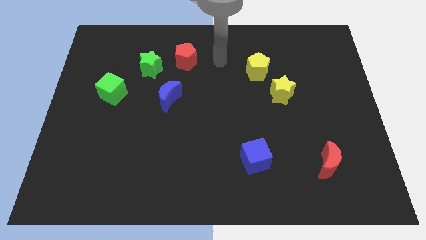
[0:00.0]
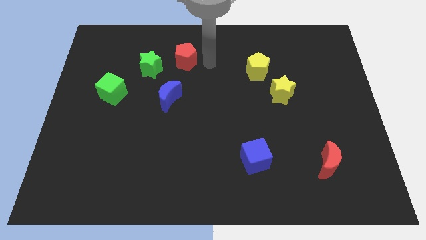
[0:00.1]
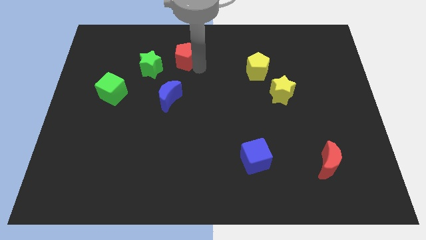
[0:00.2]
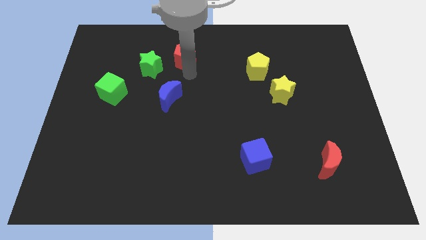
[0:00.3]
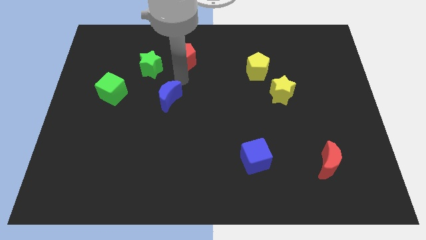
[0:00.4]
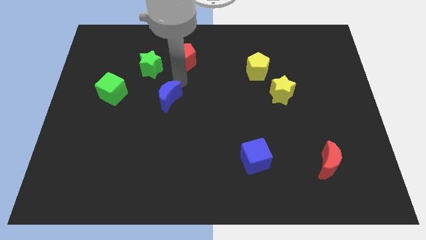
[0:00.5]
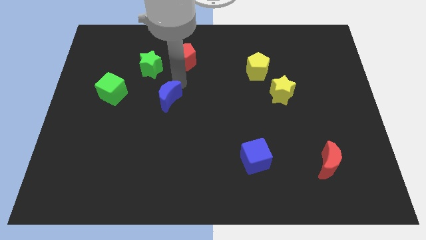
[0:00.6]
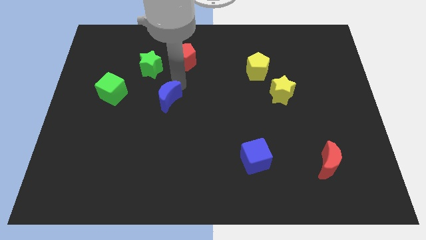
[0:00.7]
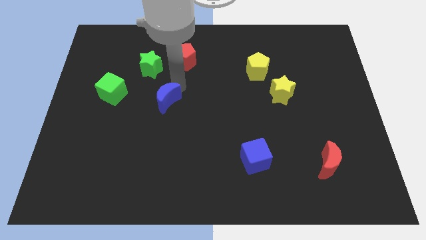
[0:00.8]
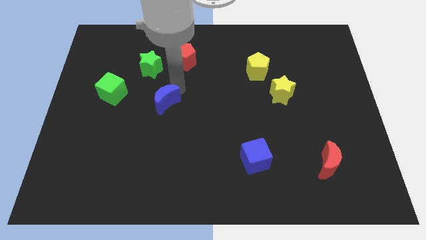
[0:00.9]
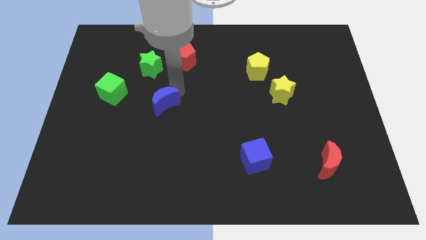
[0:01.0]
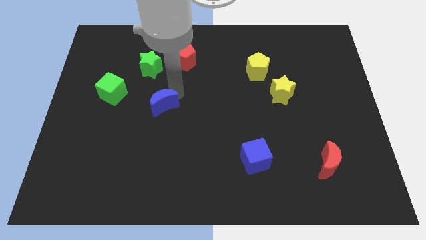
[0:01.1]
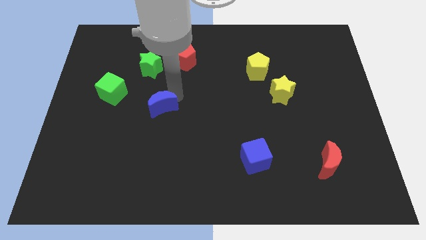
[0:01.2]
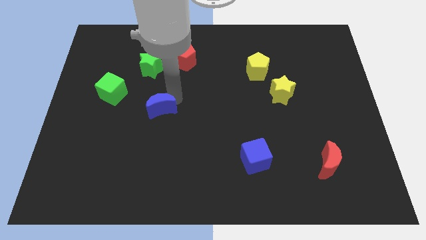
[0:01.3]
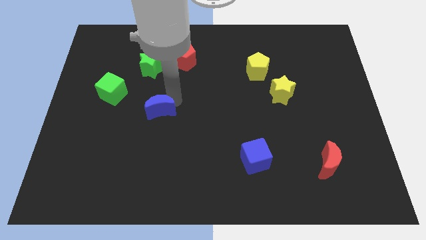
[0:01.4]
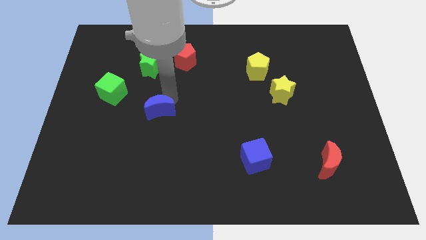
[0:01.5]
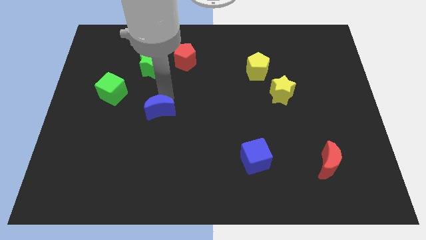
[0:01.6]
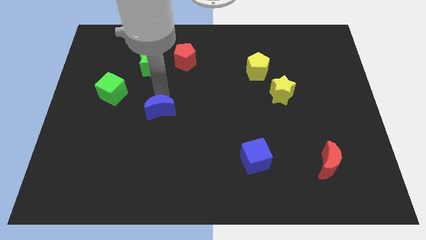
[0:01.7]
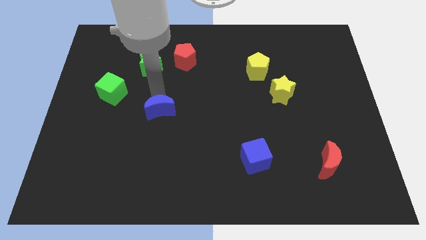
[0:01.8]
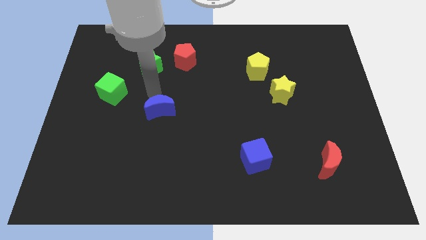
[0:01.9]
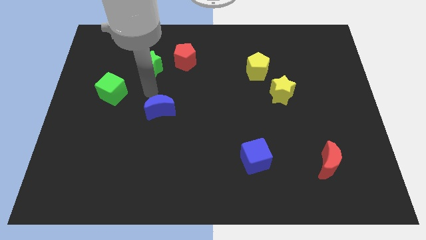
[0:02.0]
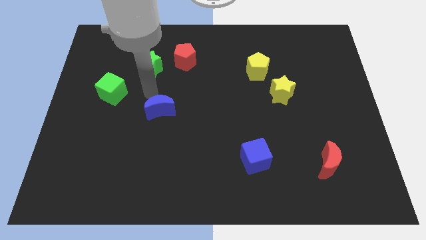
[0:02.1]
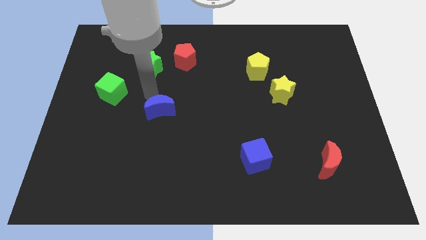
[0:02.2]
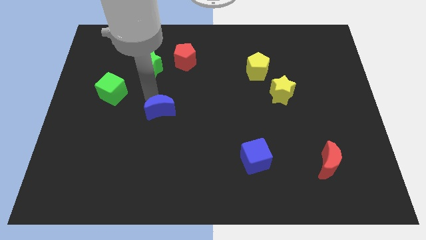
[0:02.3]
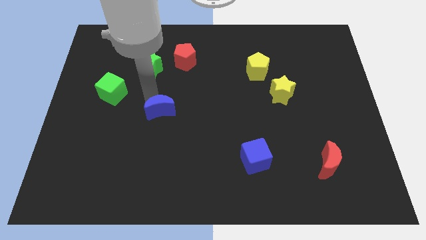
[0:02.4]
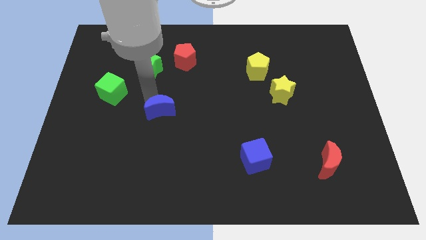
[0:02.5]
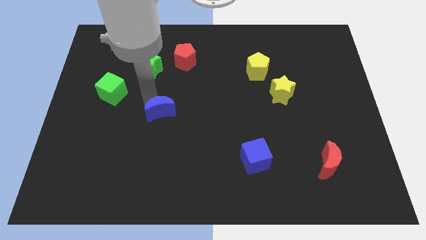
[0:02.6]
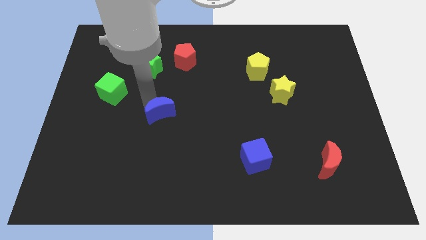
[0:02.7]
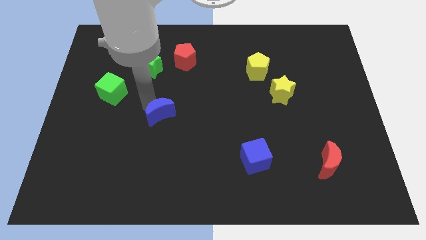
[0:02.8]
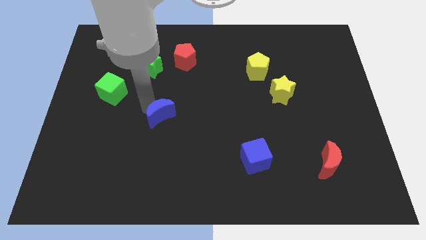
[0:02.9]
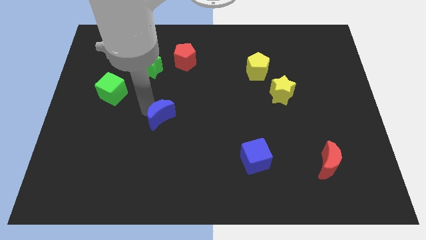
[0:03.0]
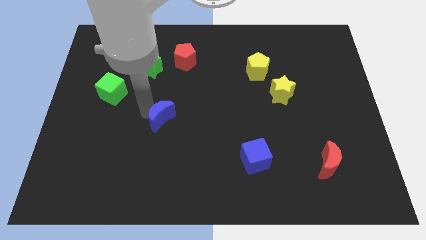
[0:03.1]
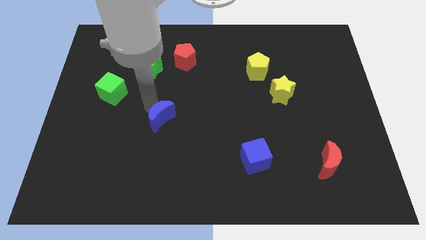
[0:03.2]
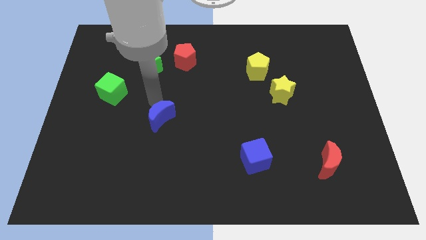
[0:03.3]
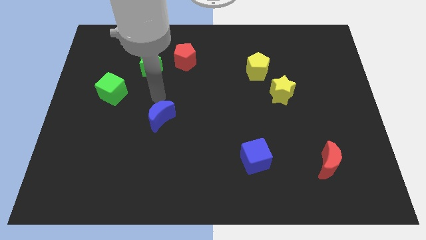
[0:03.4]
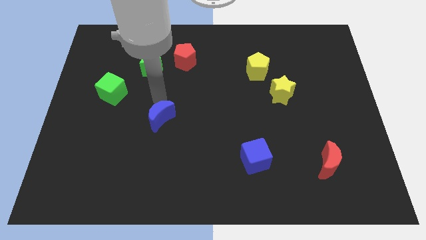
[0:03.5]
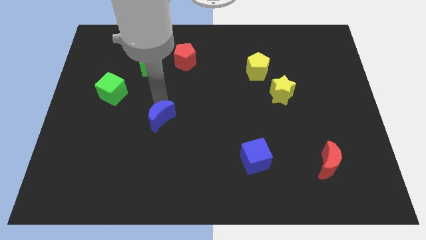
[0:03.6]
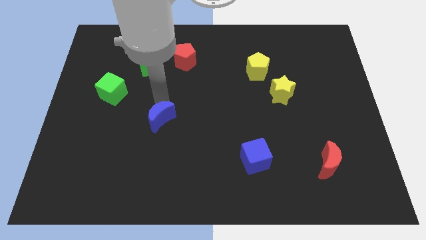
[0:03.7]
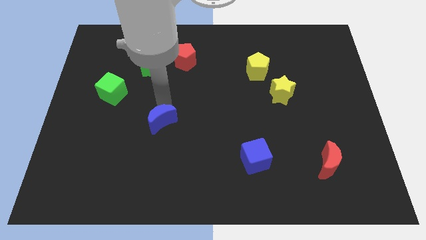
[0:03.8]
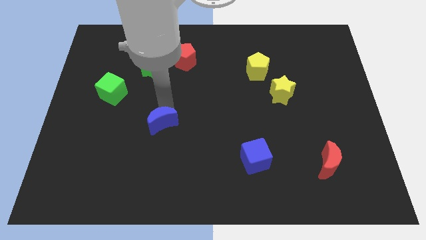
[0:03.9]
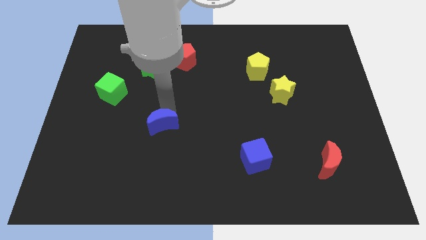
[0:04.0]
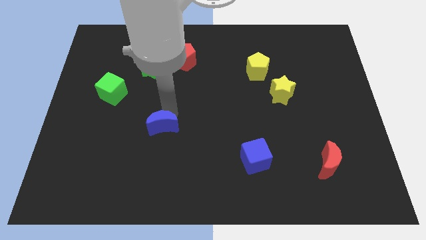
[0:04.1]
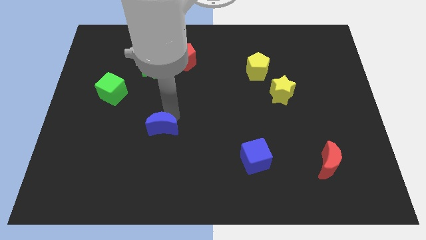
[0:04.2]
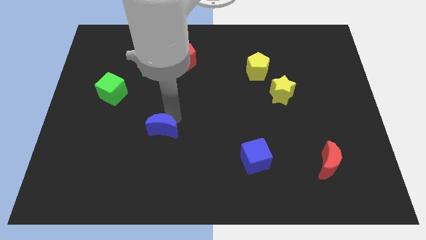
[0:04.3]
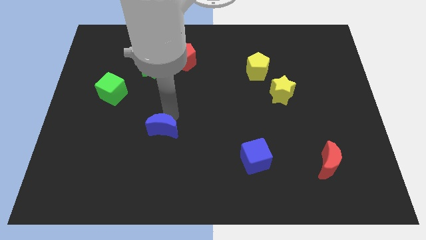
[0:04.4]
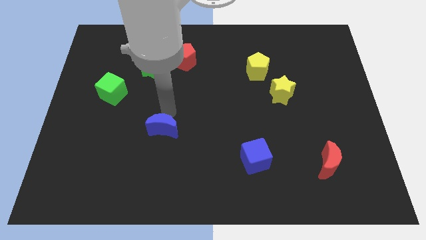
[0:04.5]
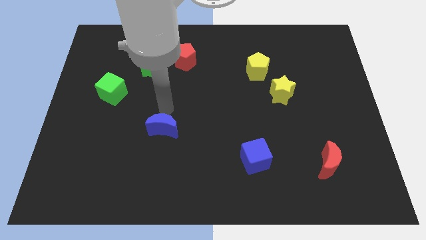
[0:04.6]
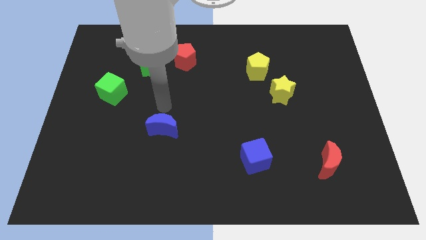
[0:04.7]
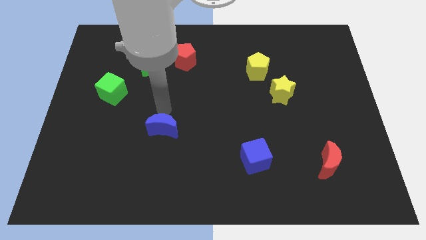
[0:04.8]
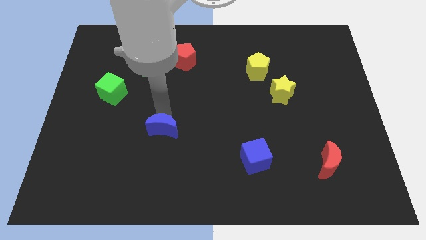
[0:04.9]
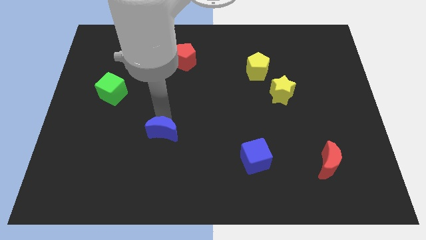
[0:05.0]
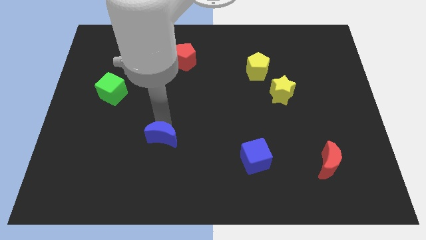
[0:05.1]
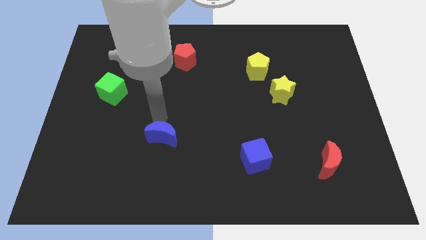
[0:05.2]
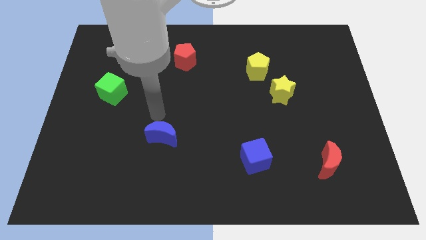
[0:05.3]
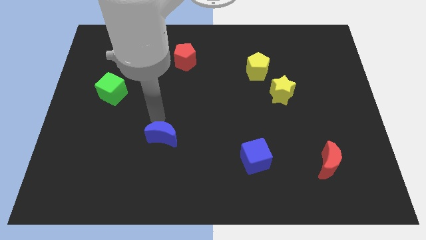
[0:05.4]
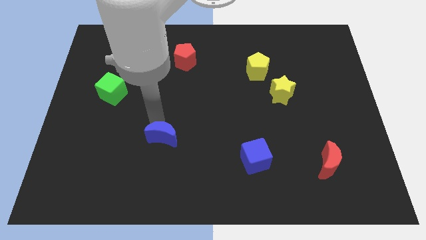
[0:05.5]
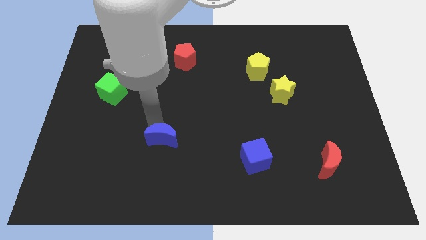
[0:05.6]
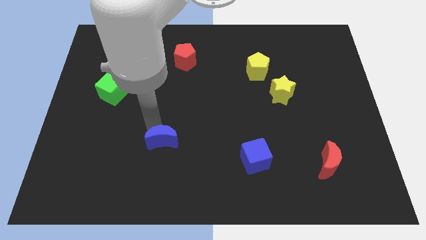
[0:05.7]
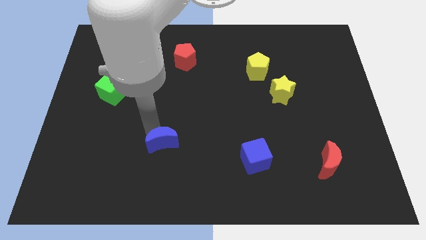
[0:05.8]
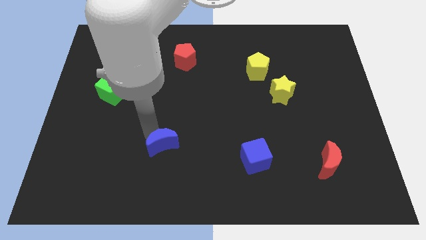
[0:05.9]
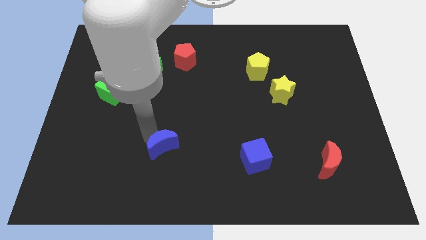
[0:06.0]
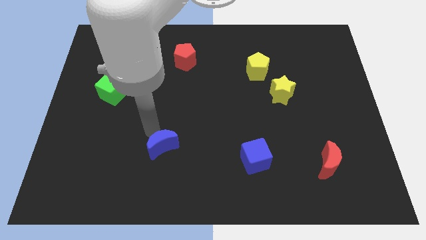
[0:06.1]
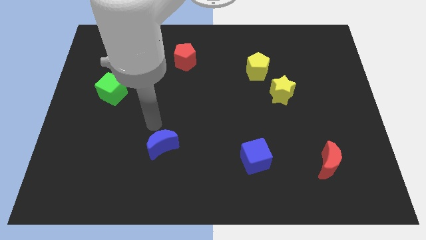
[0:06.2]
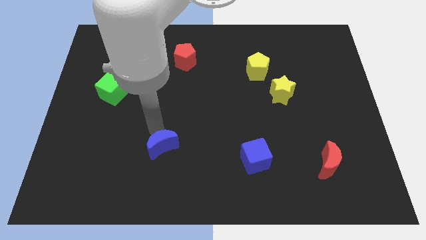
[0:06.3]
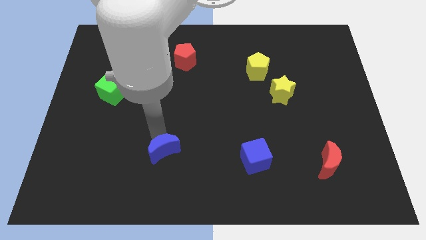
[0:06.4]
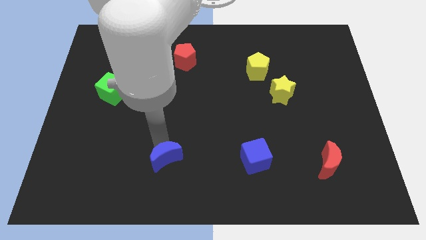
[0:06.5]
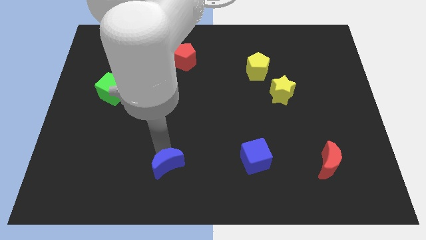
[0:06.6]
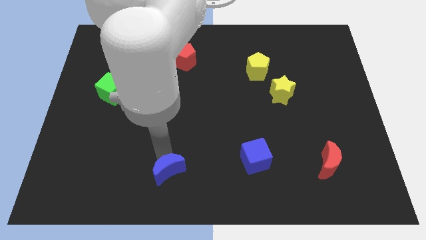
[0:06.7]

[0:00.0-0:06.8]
push the blue moon to the bottom side

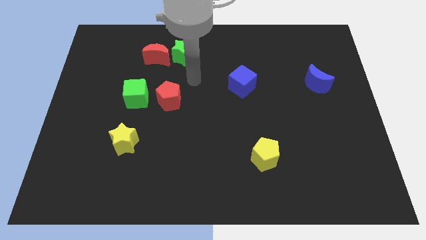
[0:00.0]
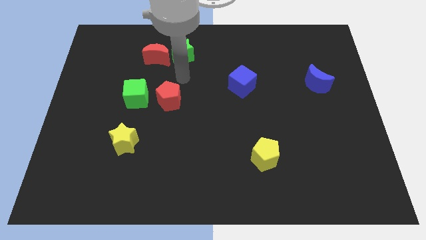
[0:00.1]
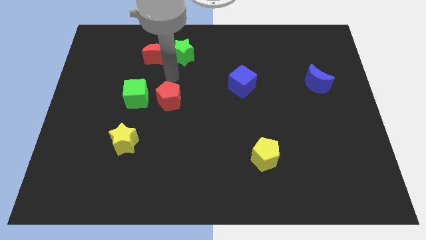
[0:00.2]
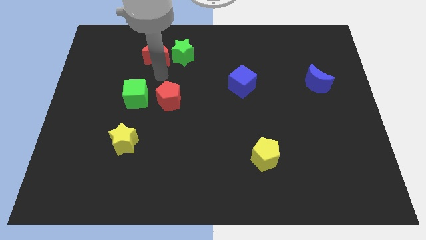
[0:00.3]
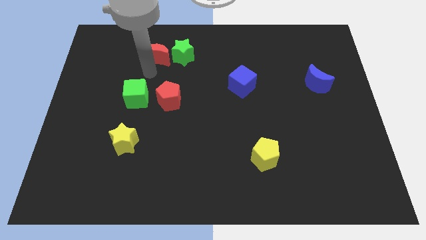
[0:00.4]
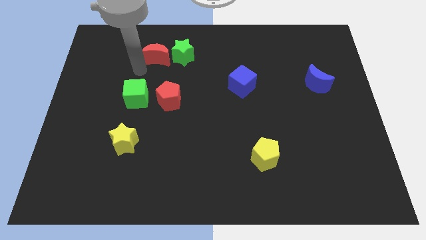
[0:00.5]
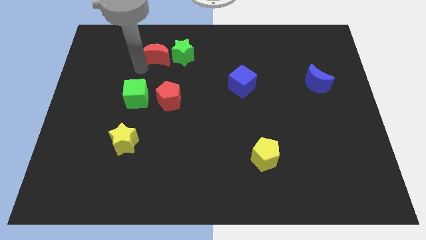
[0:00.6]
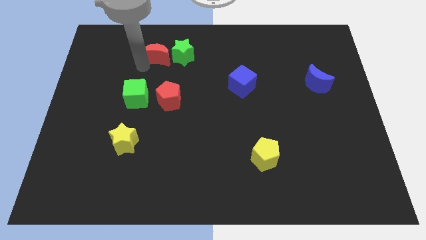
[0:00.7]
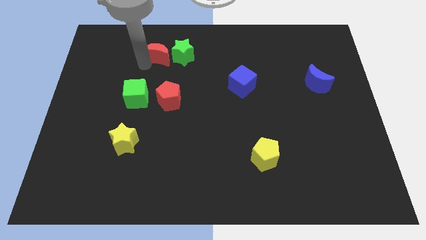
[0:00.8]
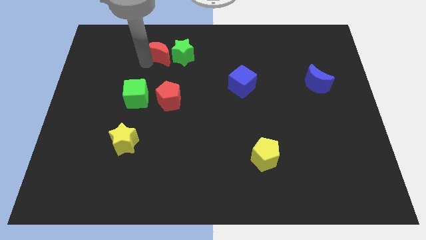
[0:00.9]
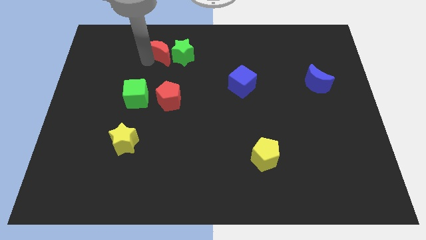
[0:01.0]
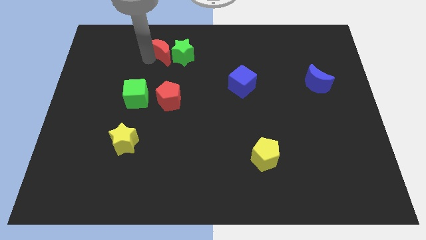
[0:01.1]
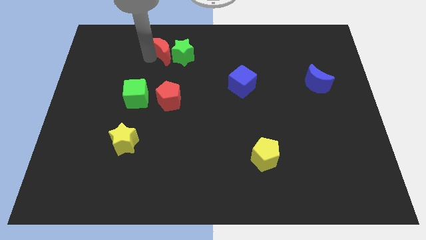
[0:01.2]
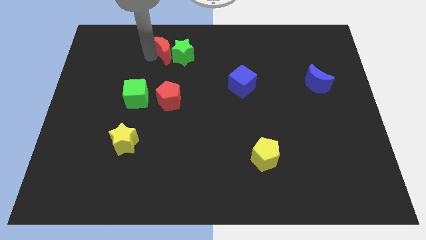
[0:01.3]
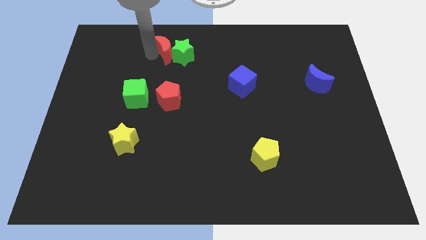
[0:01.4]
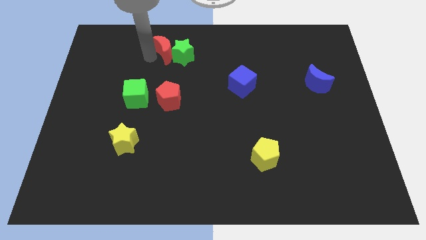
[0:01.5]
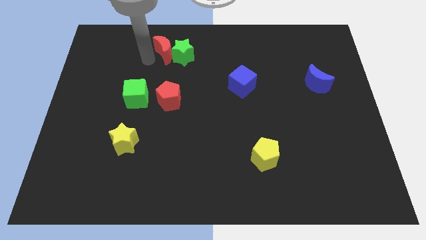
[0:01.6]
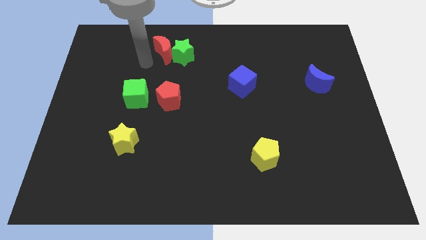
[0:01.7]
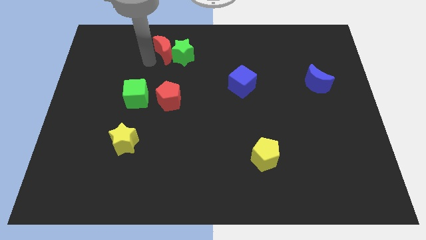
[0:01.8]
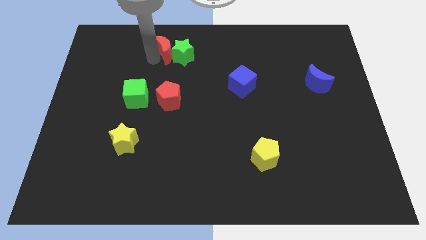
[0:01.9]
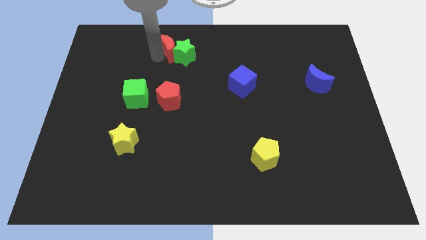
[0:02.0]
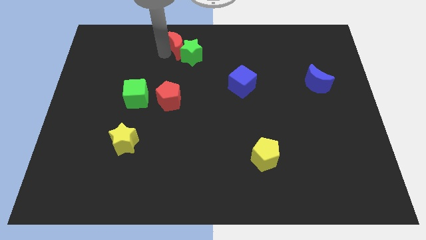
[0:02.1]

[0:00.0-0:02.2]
move the red moon to the top side
